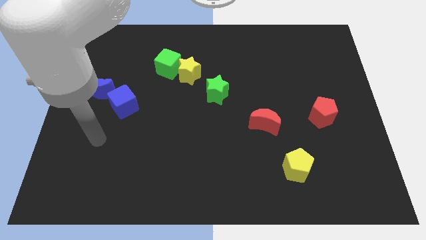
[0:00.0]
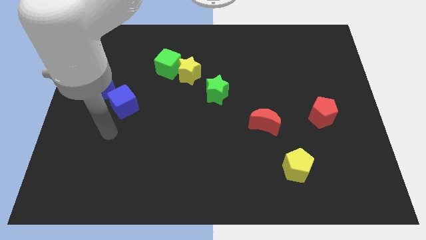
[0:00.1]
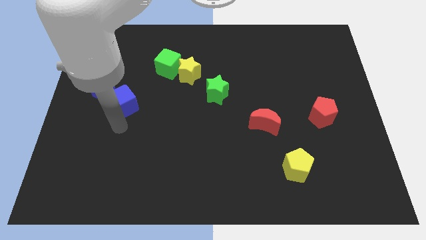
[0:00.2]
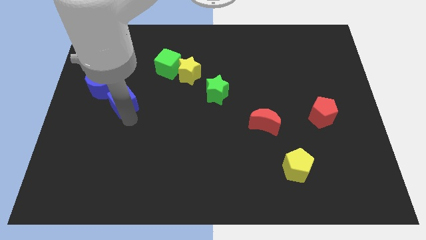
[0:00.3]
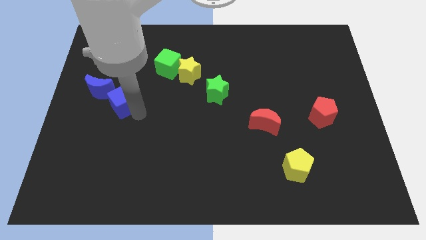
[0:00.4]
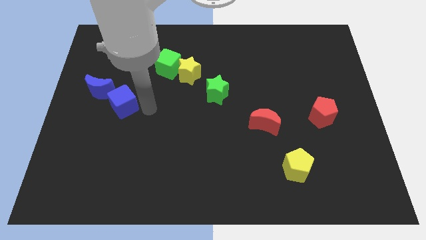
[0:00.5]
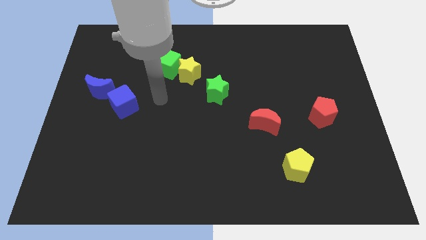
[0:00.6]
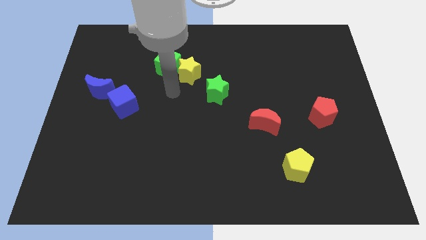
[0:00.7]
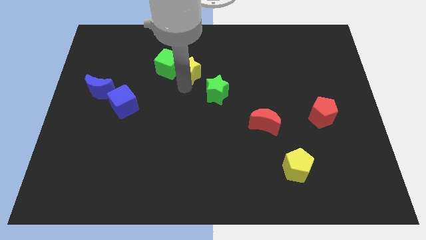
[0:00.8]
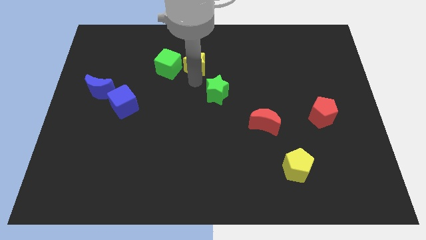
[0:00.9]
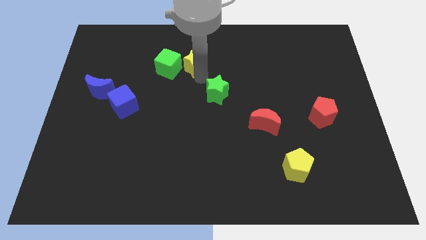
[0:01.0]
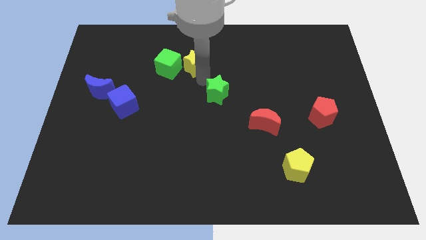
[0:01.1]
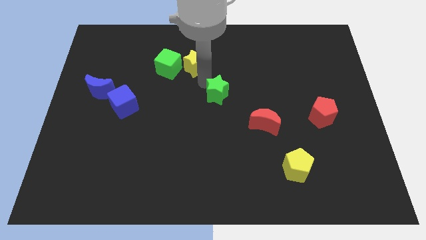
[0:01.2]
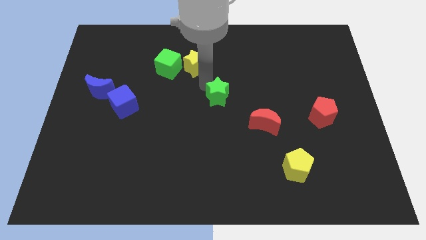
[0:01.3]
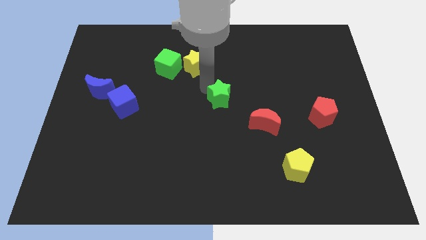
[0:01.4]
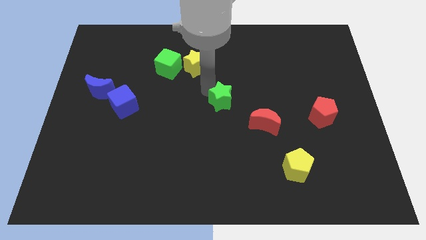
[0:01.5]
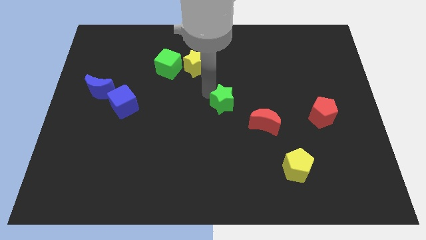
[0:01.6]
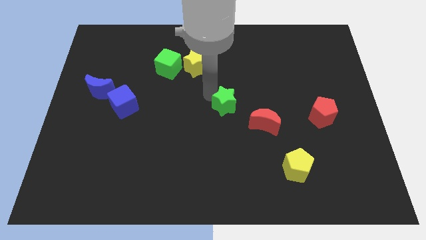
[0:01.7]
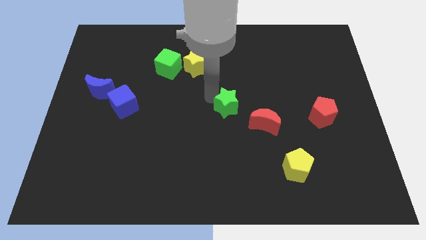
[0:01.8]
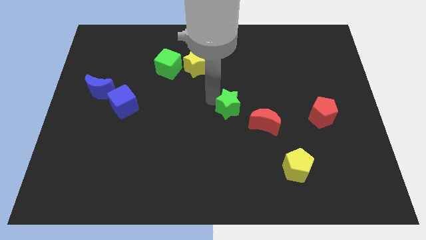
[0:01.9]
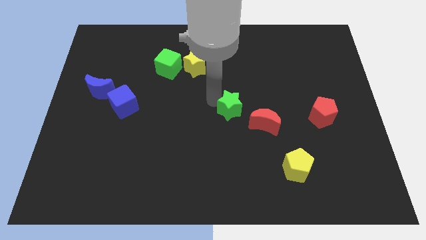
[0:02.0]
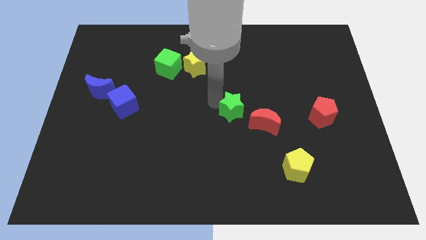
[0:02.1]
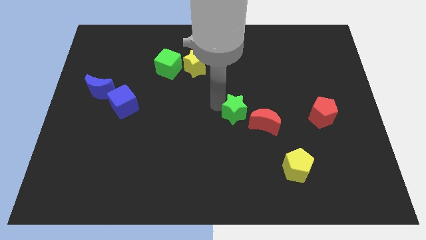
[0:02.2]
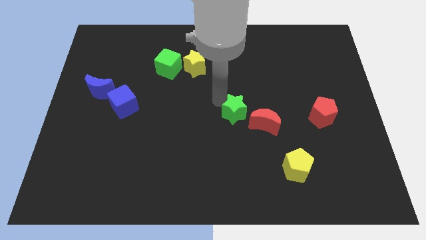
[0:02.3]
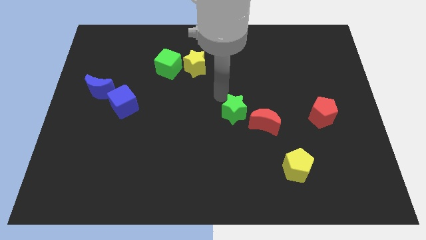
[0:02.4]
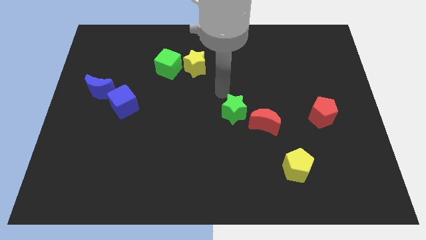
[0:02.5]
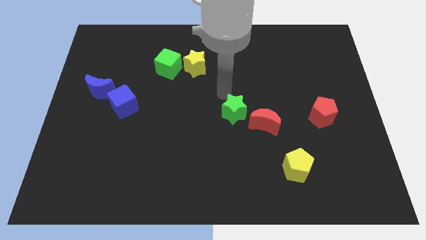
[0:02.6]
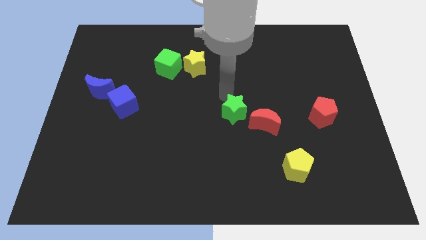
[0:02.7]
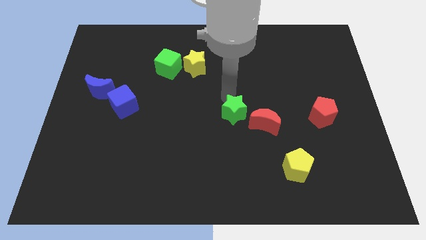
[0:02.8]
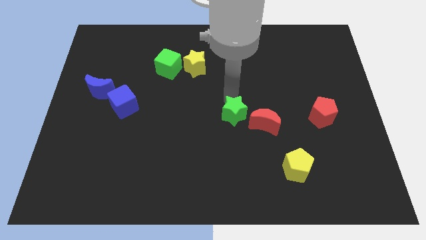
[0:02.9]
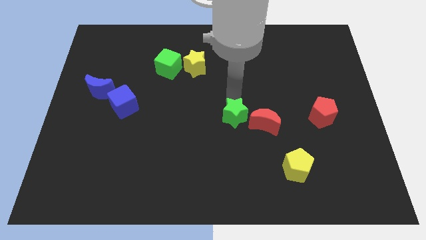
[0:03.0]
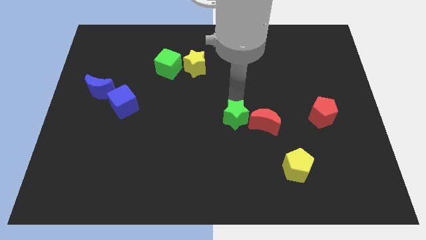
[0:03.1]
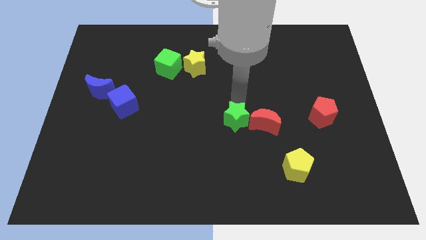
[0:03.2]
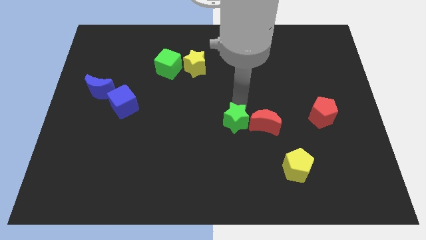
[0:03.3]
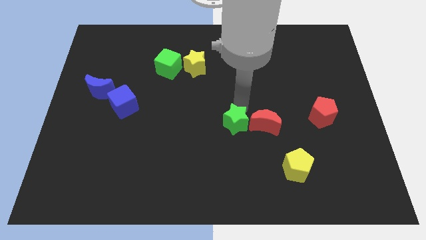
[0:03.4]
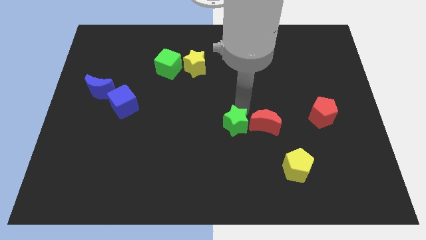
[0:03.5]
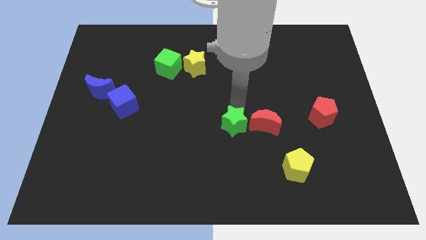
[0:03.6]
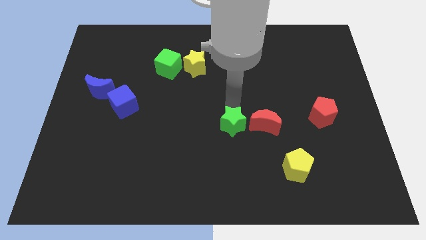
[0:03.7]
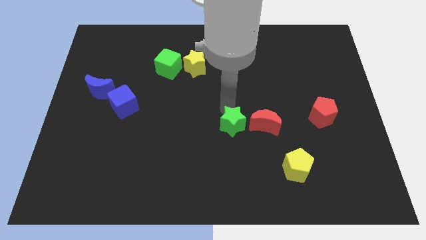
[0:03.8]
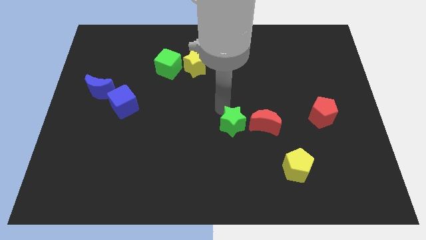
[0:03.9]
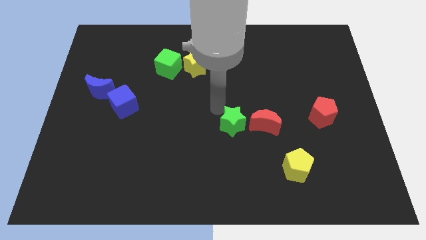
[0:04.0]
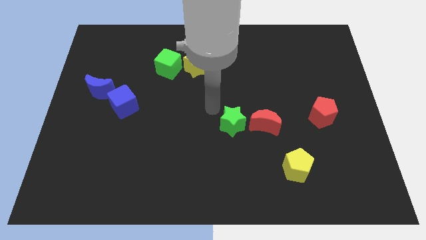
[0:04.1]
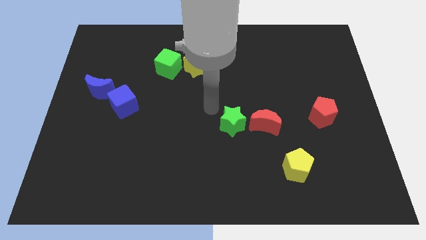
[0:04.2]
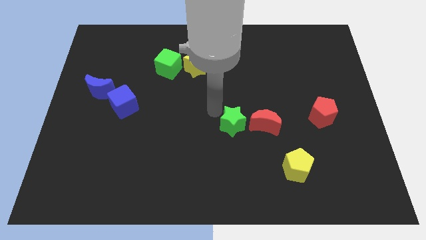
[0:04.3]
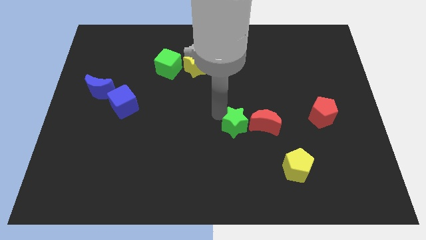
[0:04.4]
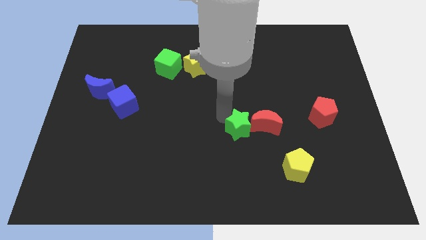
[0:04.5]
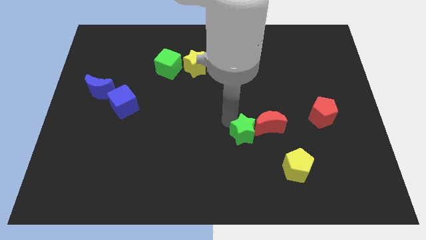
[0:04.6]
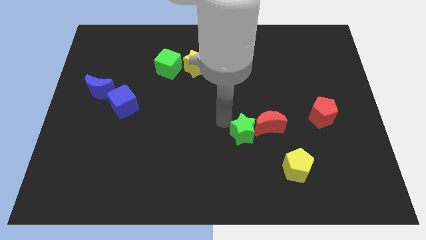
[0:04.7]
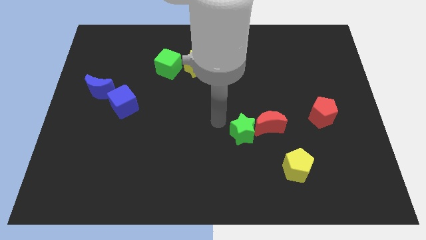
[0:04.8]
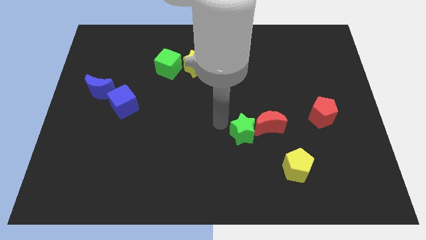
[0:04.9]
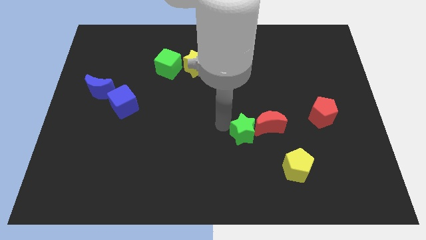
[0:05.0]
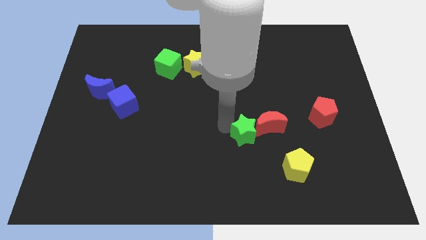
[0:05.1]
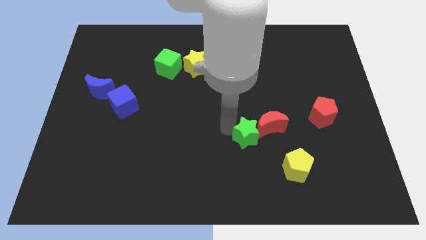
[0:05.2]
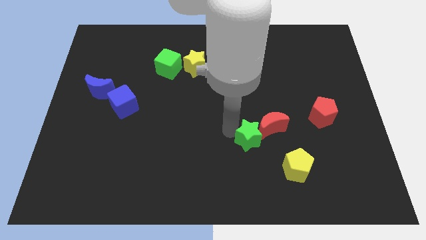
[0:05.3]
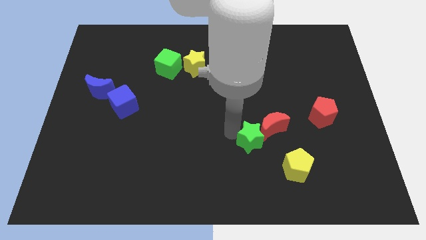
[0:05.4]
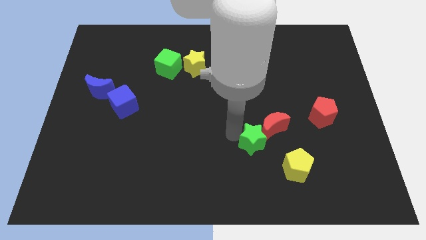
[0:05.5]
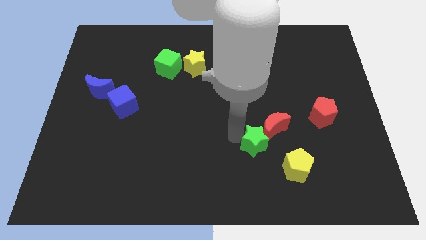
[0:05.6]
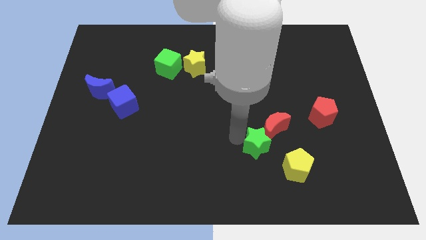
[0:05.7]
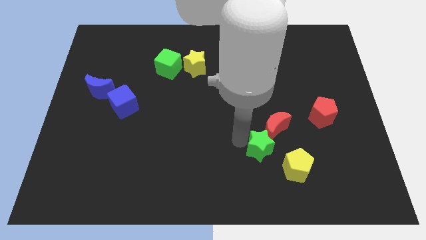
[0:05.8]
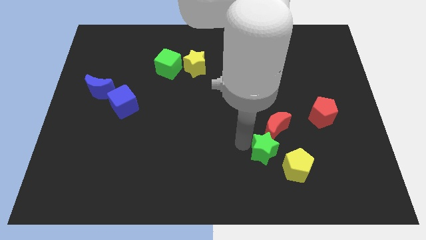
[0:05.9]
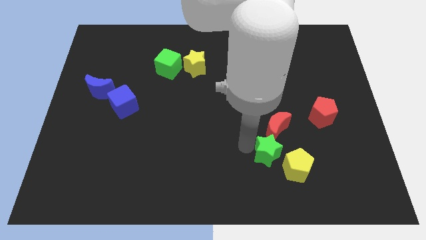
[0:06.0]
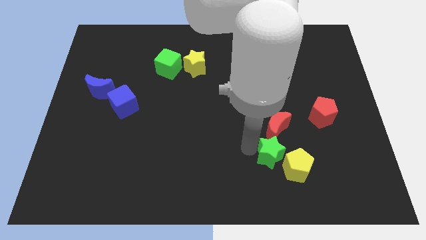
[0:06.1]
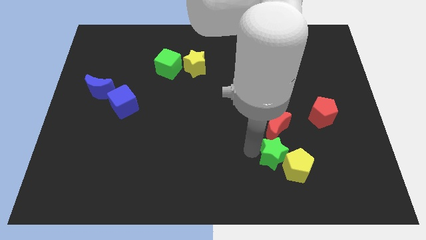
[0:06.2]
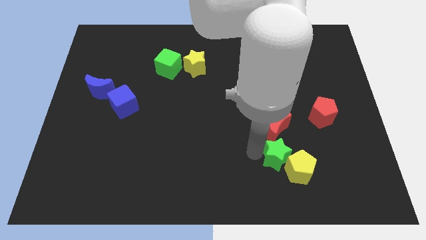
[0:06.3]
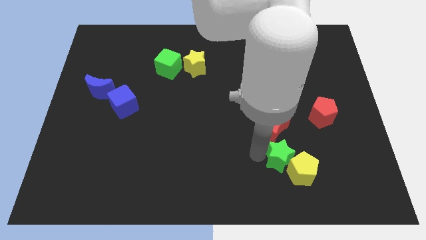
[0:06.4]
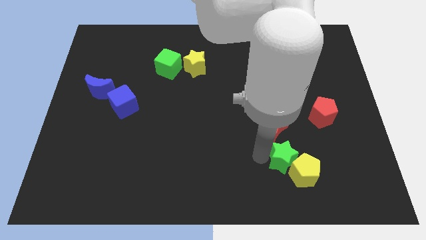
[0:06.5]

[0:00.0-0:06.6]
push the green star to the bottom right of the red moon

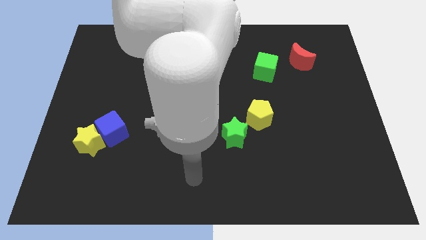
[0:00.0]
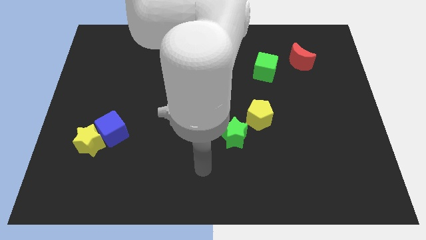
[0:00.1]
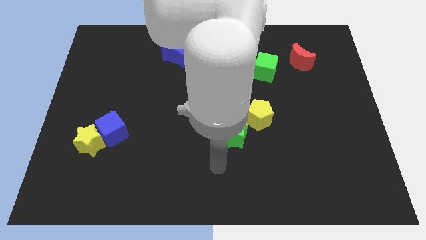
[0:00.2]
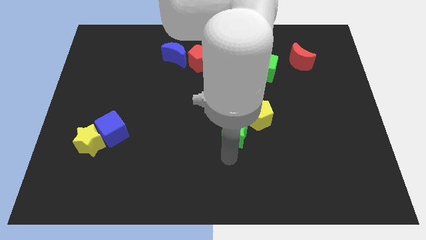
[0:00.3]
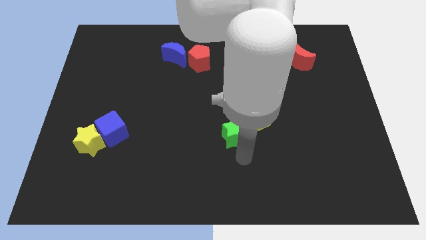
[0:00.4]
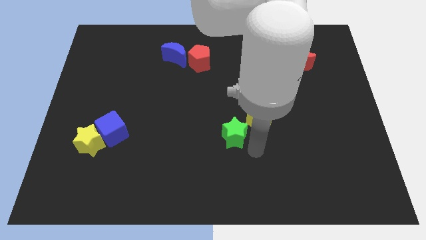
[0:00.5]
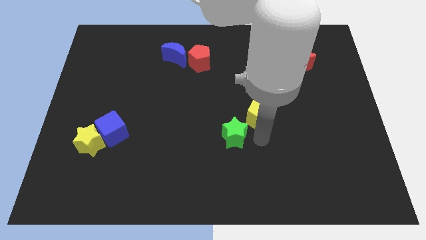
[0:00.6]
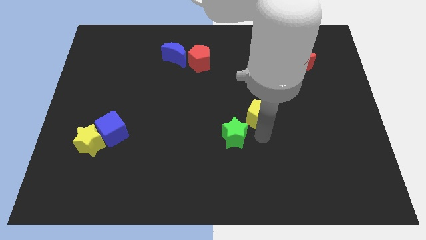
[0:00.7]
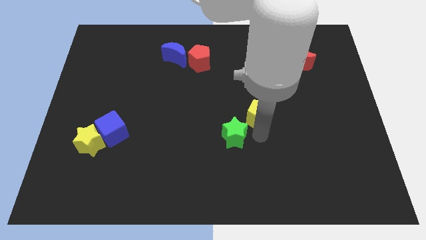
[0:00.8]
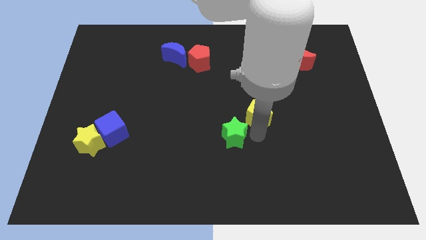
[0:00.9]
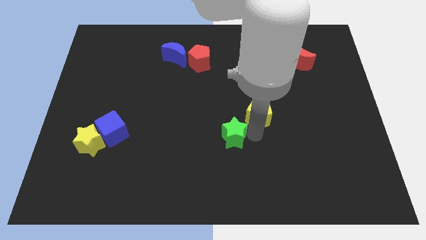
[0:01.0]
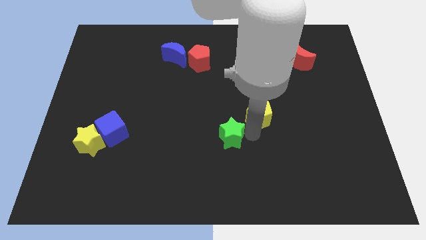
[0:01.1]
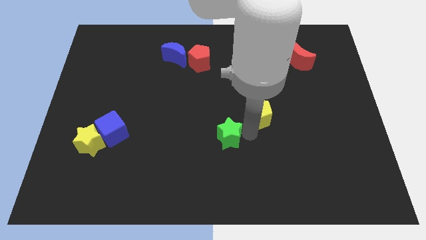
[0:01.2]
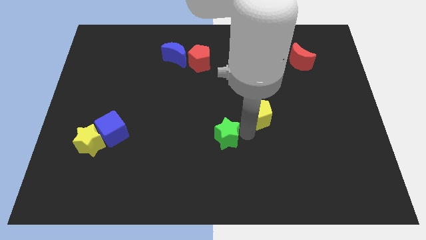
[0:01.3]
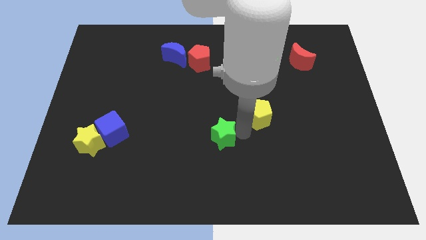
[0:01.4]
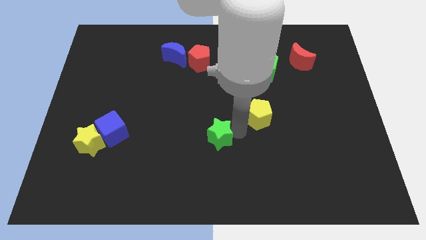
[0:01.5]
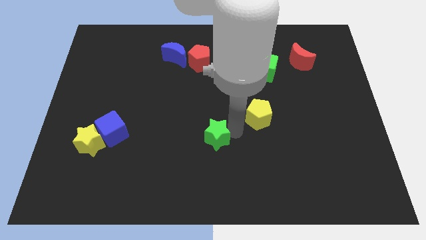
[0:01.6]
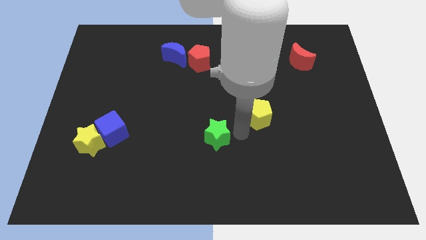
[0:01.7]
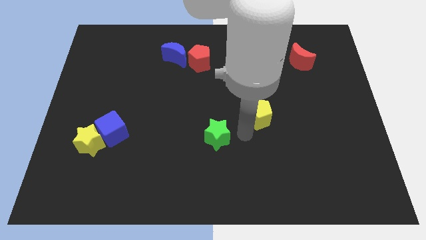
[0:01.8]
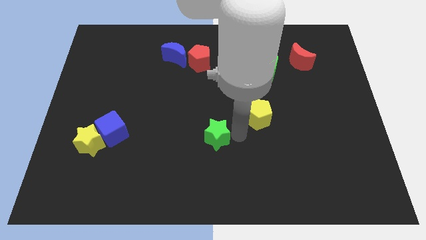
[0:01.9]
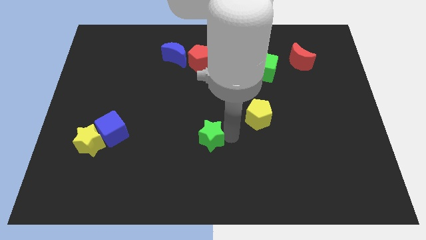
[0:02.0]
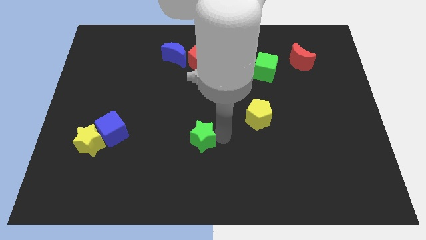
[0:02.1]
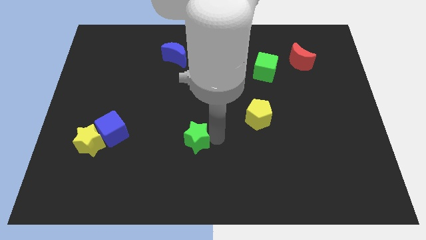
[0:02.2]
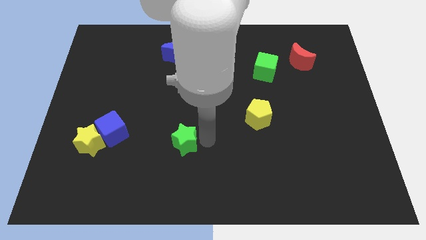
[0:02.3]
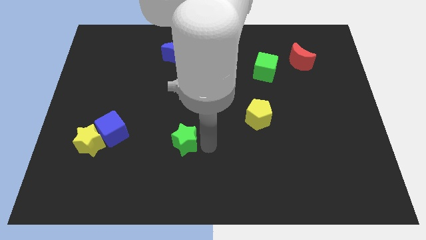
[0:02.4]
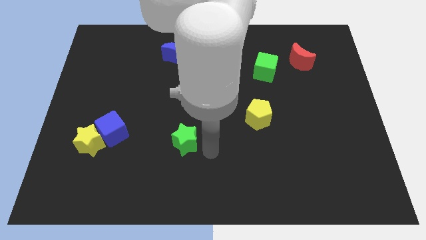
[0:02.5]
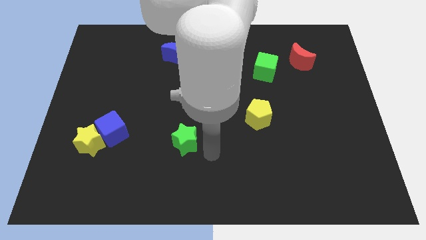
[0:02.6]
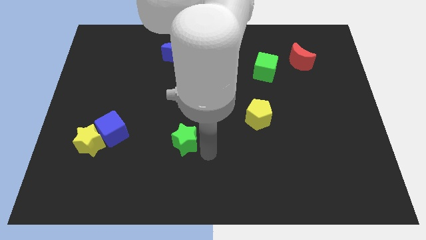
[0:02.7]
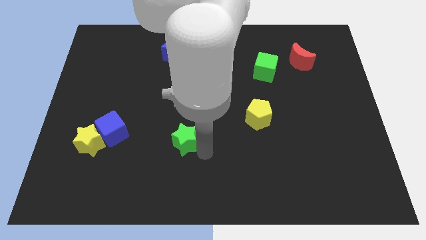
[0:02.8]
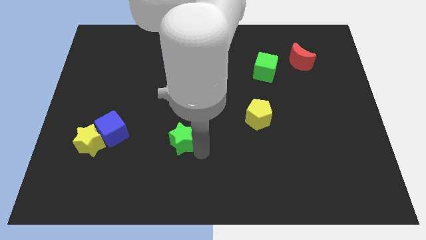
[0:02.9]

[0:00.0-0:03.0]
slide the green star to the right side of the blue cube
